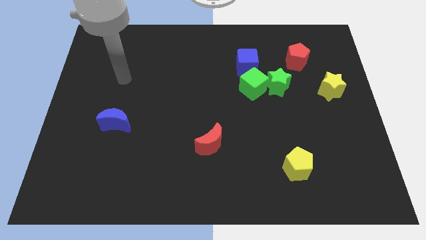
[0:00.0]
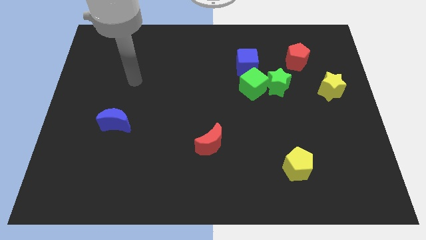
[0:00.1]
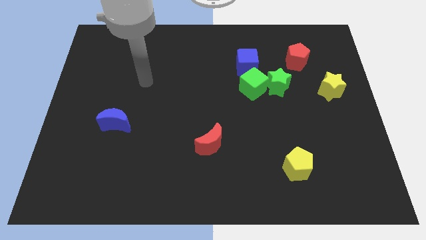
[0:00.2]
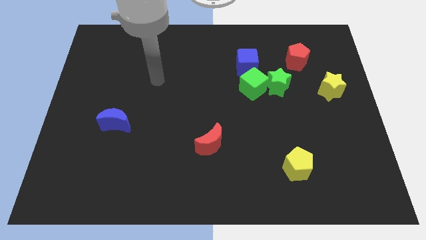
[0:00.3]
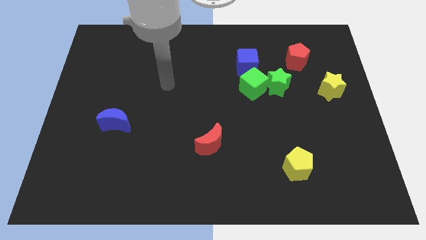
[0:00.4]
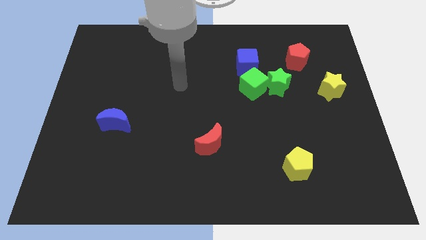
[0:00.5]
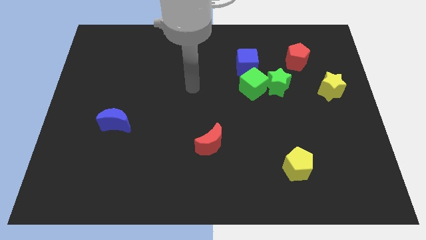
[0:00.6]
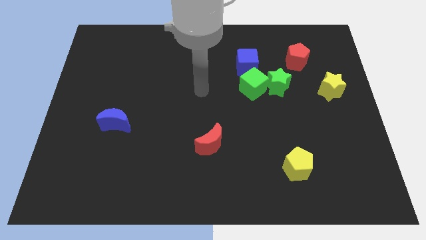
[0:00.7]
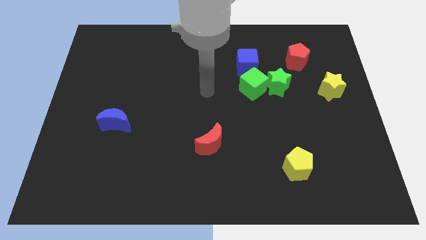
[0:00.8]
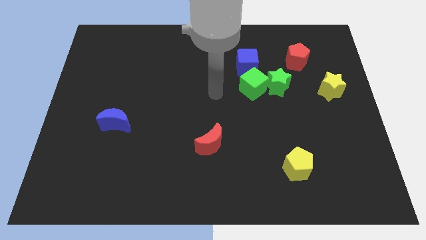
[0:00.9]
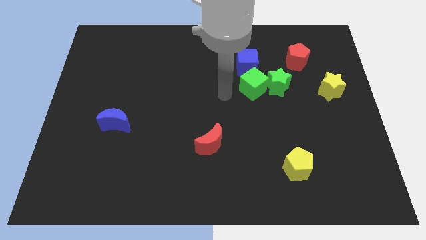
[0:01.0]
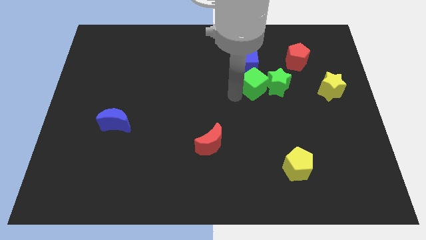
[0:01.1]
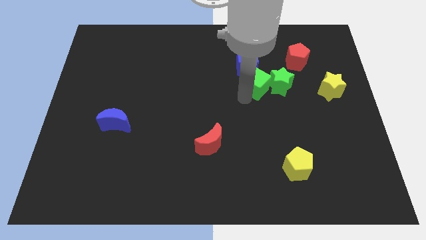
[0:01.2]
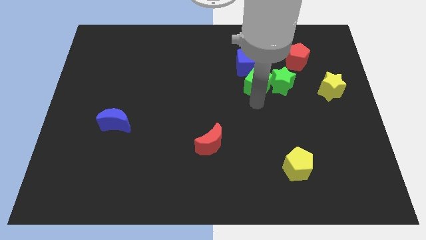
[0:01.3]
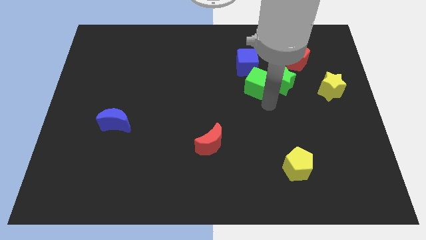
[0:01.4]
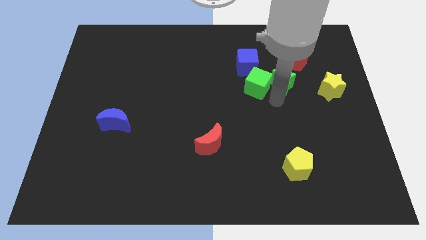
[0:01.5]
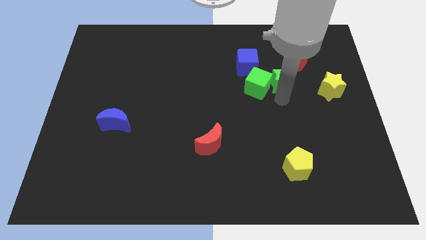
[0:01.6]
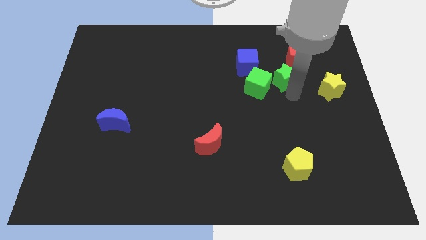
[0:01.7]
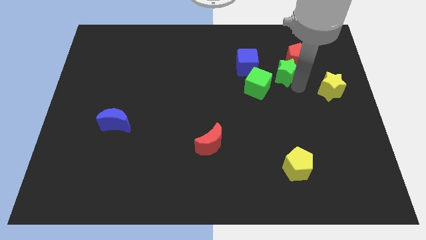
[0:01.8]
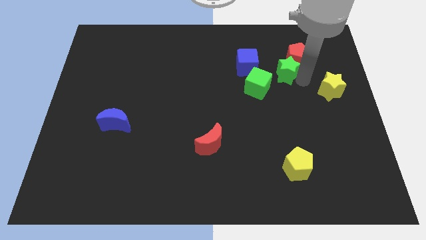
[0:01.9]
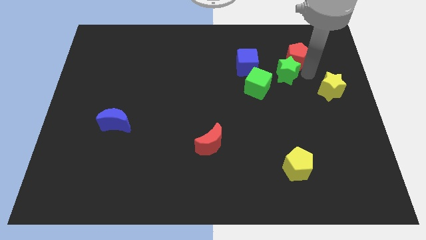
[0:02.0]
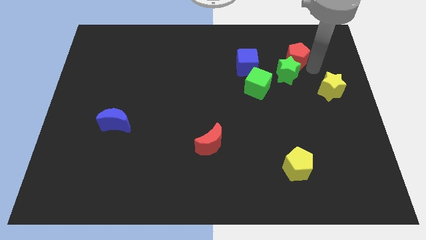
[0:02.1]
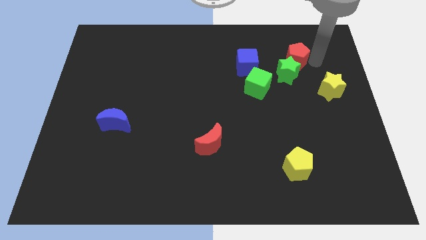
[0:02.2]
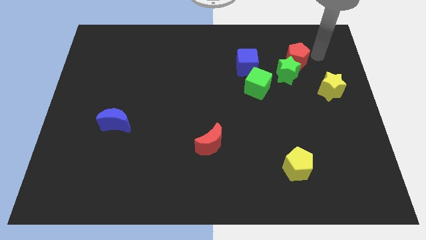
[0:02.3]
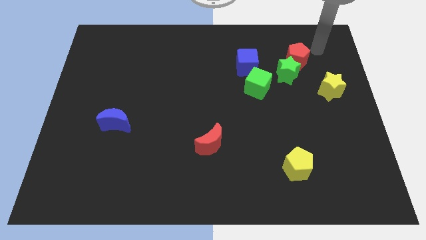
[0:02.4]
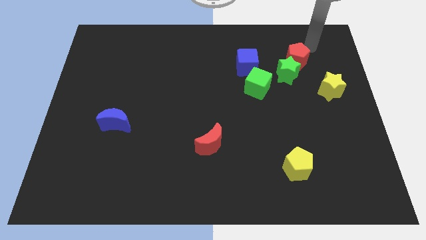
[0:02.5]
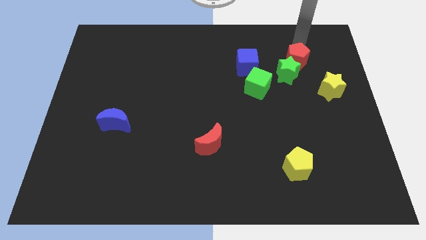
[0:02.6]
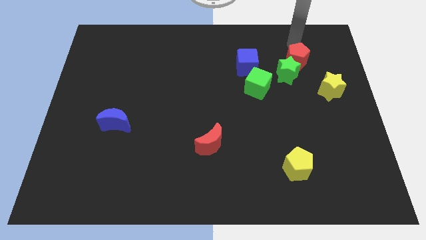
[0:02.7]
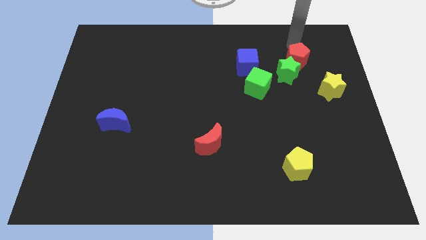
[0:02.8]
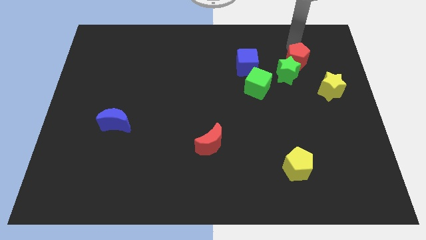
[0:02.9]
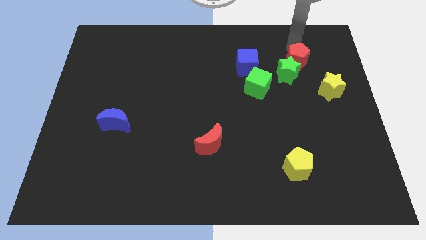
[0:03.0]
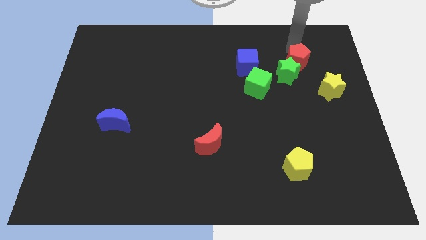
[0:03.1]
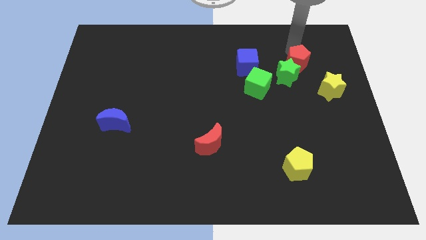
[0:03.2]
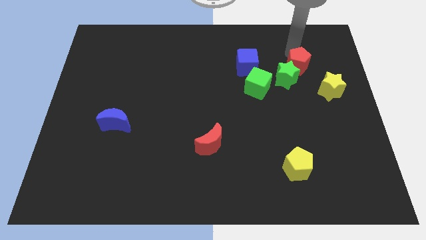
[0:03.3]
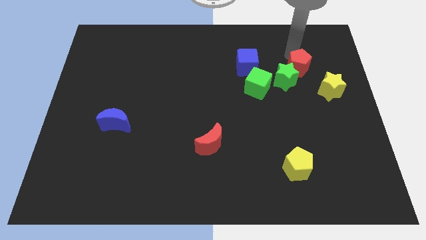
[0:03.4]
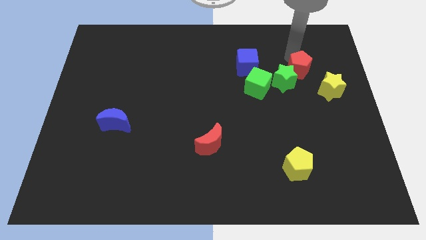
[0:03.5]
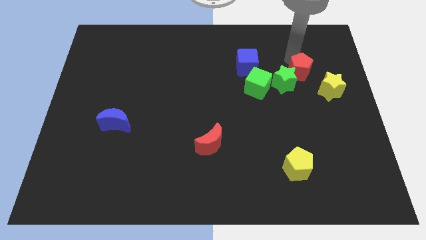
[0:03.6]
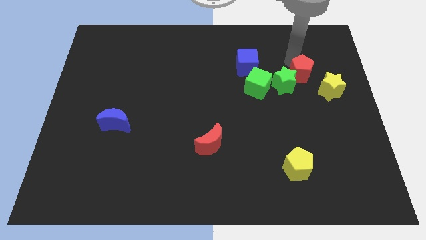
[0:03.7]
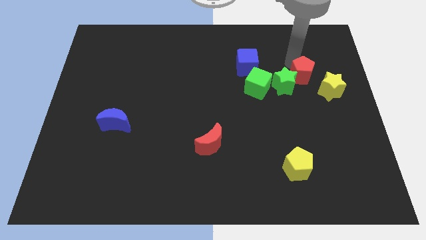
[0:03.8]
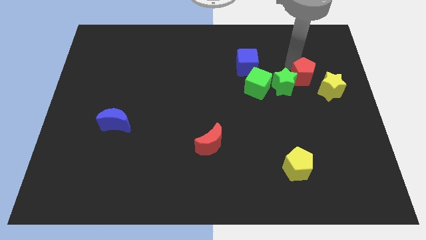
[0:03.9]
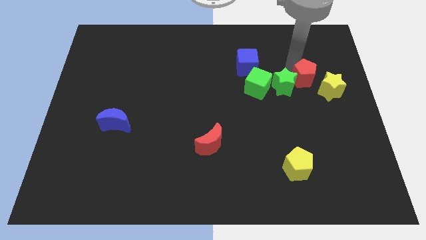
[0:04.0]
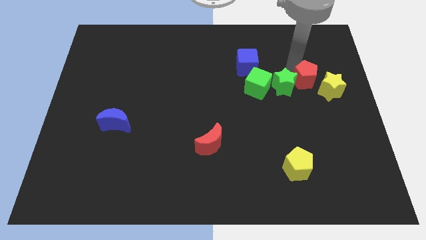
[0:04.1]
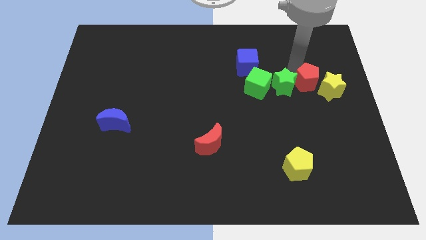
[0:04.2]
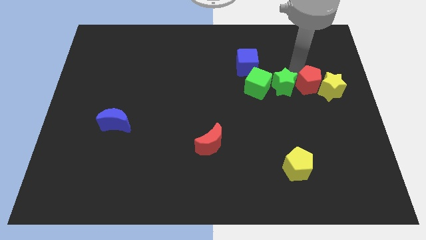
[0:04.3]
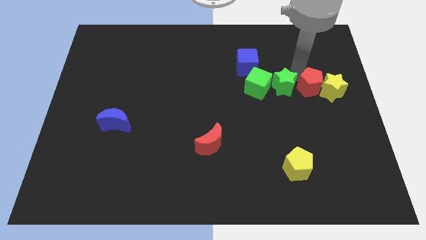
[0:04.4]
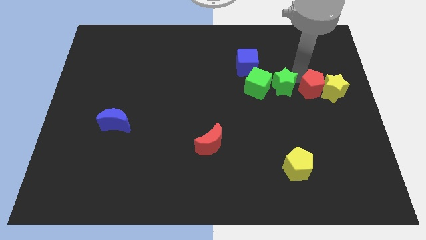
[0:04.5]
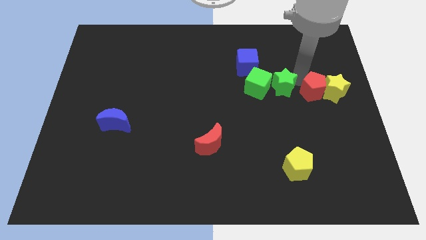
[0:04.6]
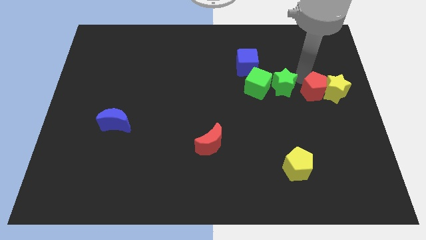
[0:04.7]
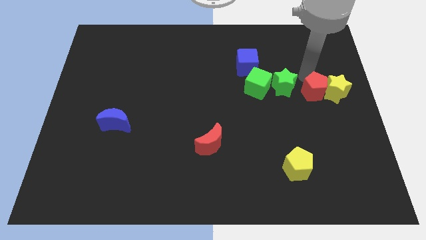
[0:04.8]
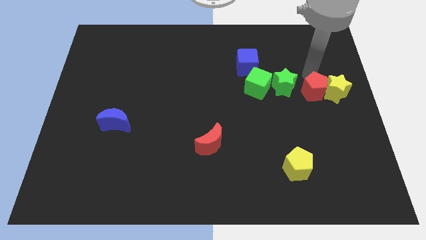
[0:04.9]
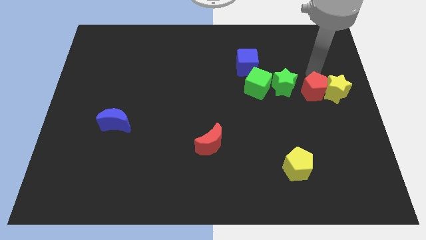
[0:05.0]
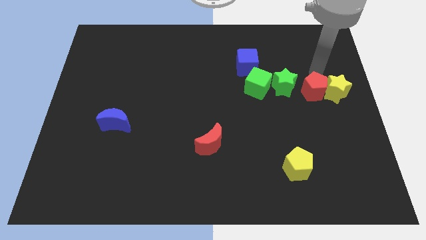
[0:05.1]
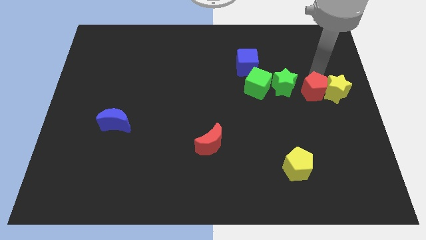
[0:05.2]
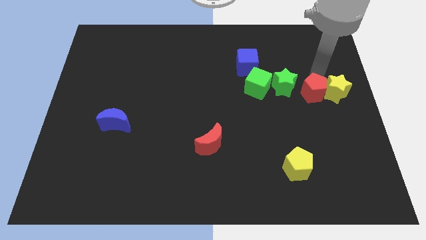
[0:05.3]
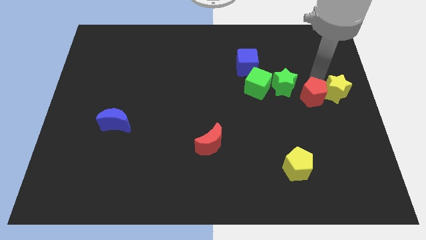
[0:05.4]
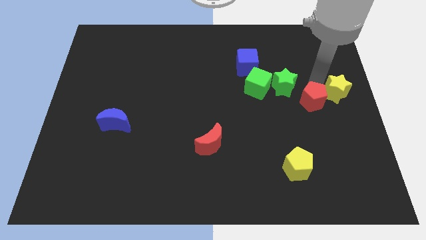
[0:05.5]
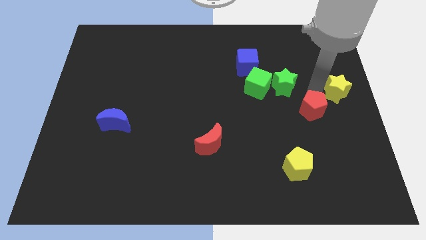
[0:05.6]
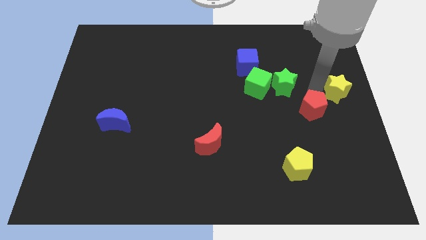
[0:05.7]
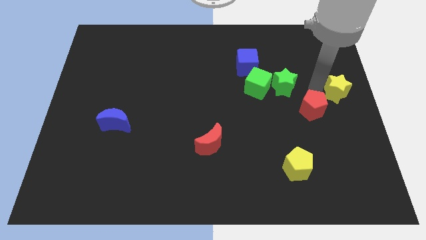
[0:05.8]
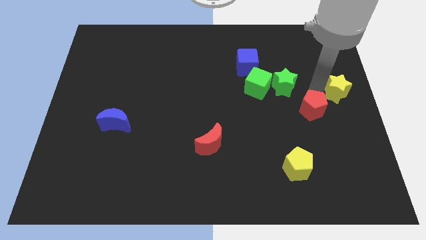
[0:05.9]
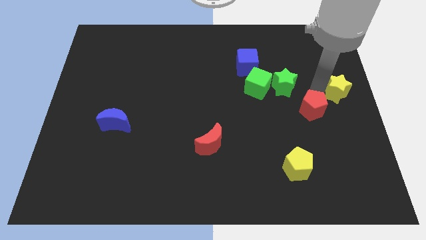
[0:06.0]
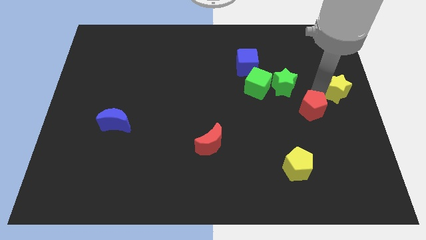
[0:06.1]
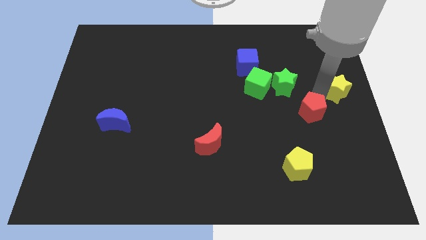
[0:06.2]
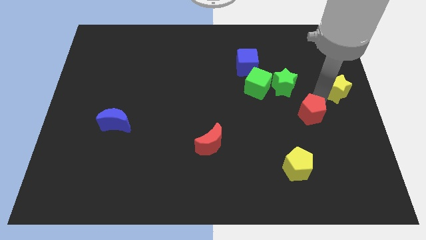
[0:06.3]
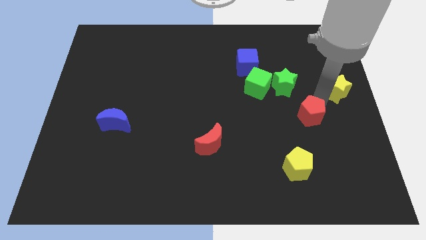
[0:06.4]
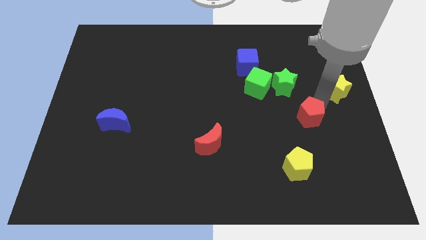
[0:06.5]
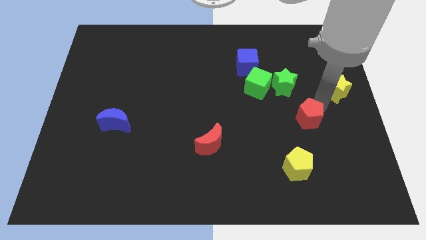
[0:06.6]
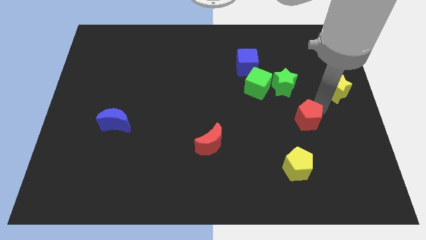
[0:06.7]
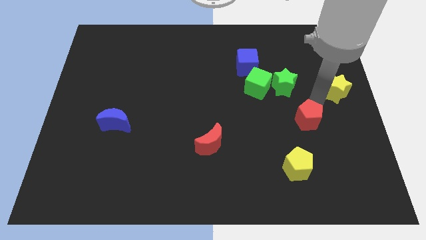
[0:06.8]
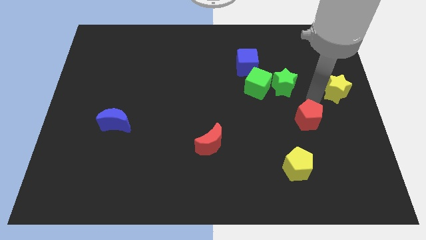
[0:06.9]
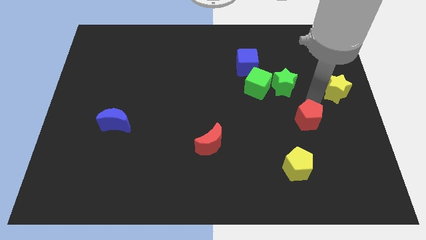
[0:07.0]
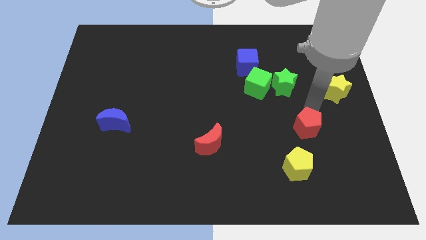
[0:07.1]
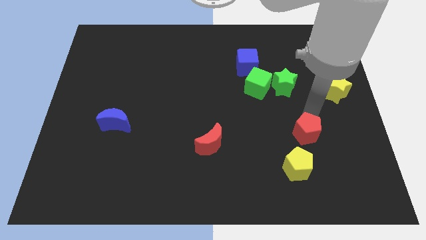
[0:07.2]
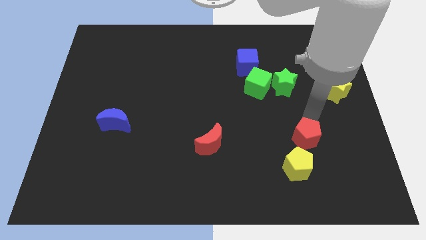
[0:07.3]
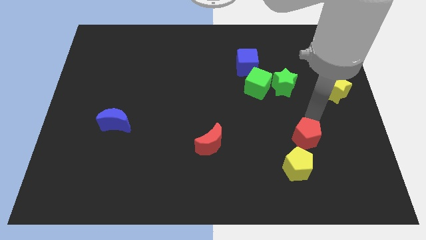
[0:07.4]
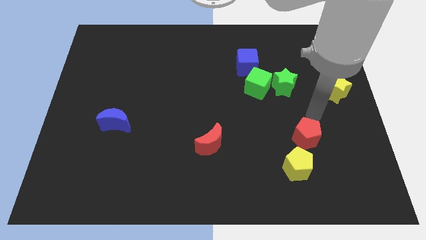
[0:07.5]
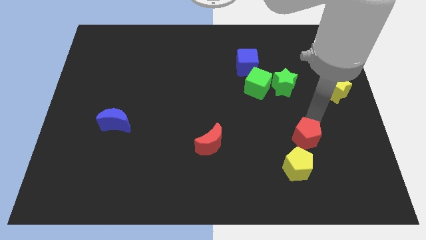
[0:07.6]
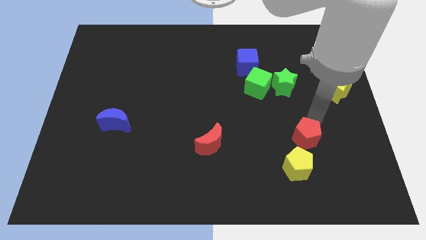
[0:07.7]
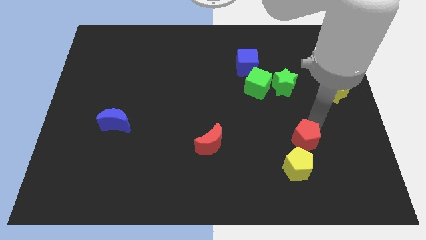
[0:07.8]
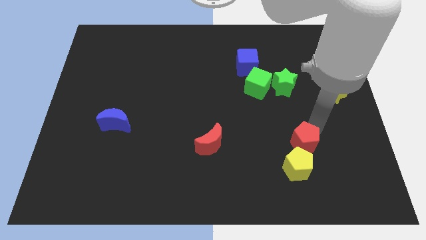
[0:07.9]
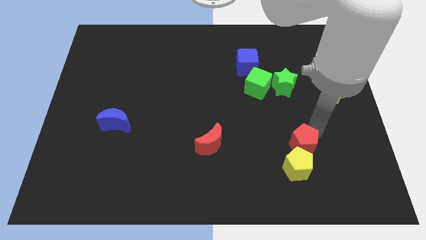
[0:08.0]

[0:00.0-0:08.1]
move the red pentagon close to the yellow pentagon
